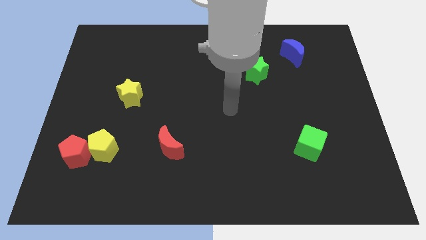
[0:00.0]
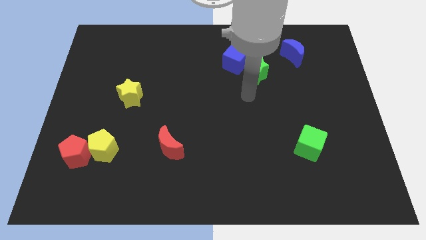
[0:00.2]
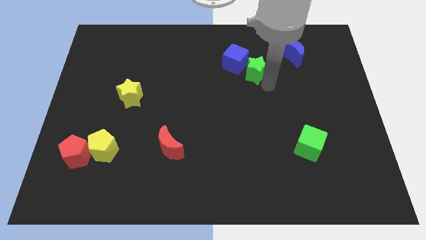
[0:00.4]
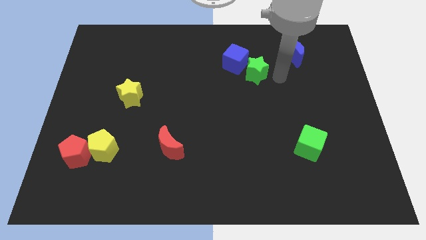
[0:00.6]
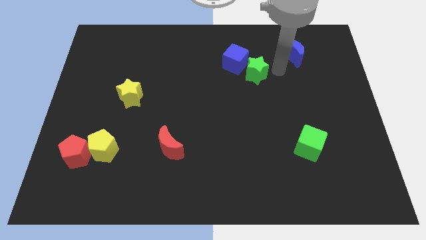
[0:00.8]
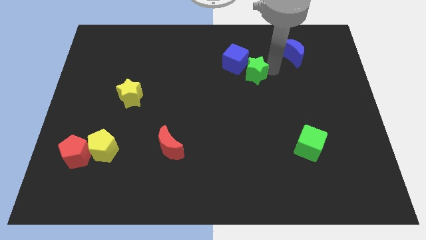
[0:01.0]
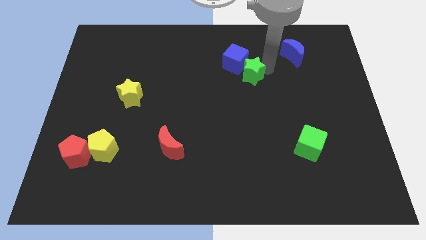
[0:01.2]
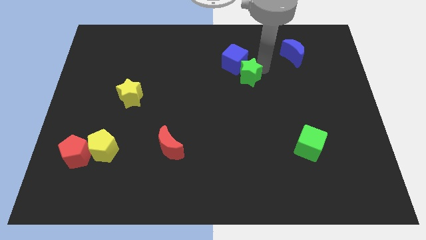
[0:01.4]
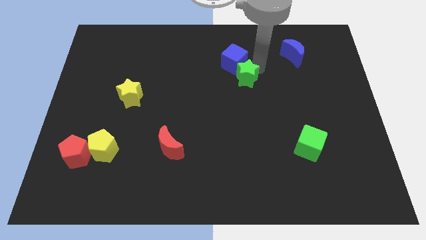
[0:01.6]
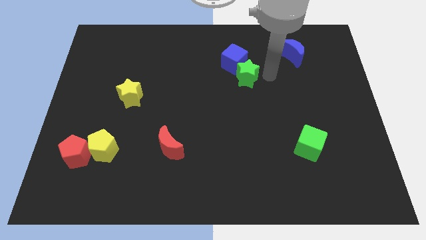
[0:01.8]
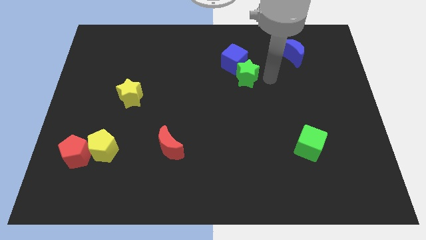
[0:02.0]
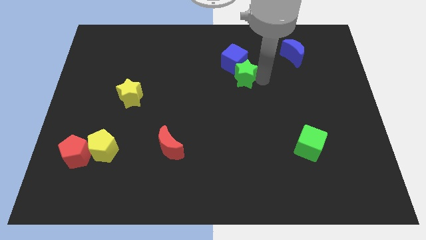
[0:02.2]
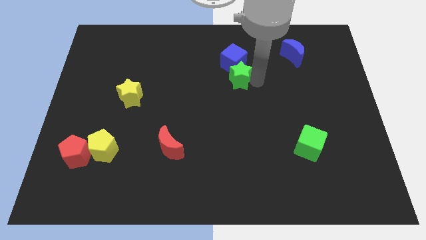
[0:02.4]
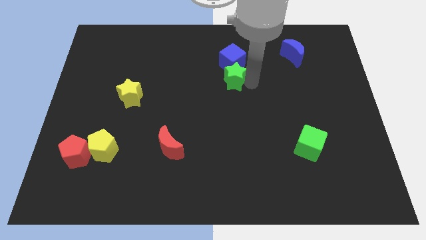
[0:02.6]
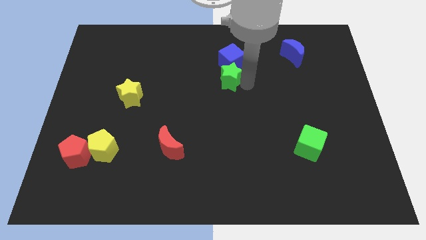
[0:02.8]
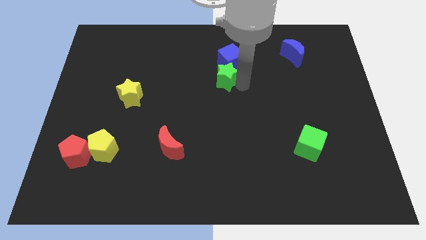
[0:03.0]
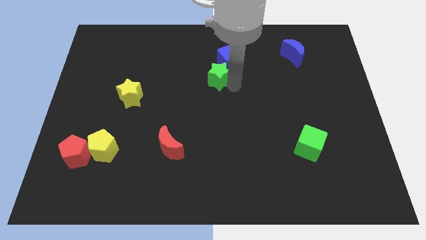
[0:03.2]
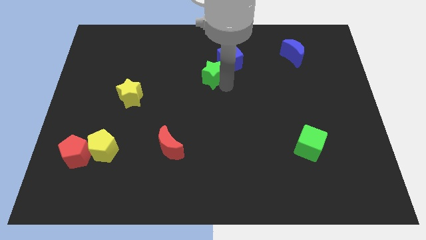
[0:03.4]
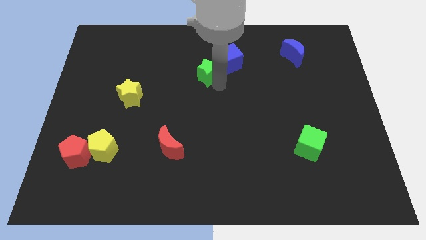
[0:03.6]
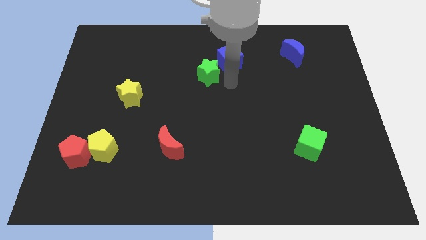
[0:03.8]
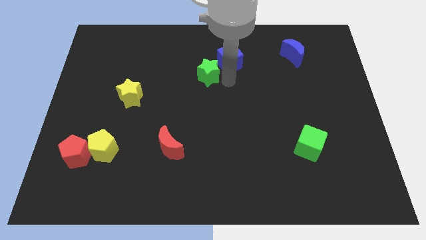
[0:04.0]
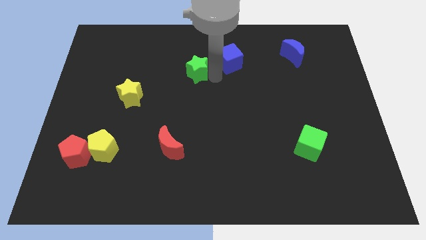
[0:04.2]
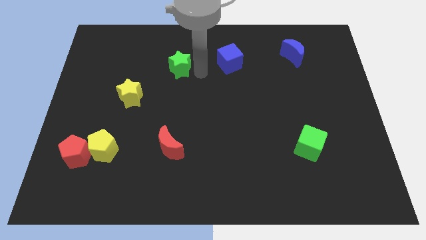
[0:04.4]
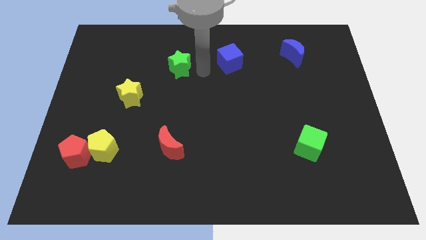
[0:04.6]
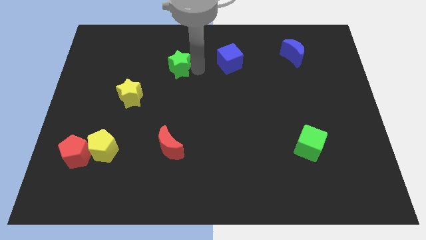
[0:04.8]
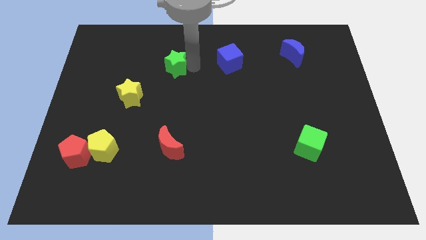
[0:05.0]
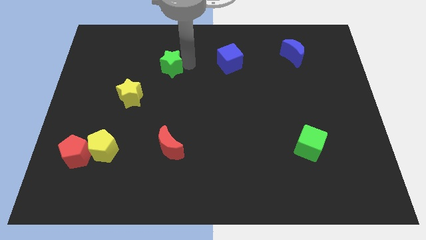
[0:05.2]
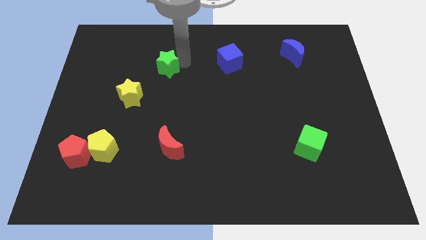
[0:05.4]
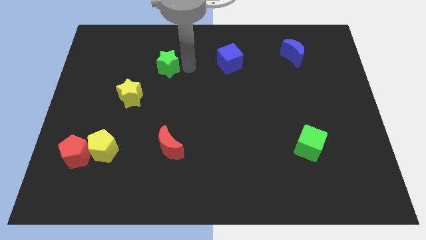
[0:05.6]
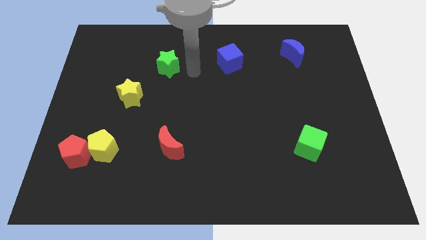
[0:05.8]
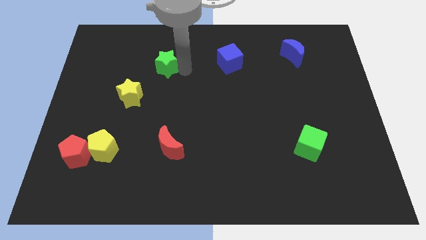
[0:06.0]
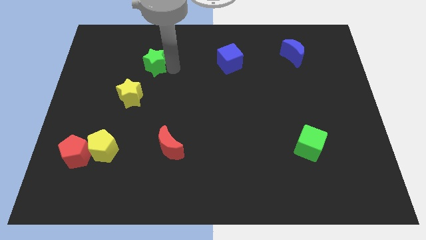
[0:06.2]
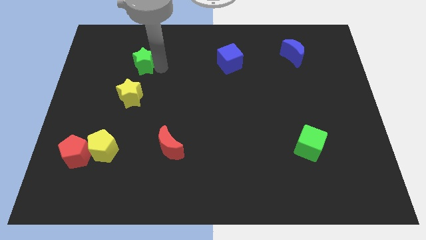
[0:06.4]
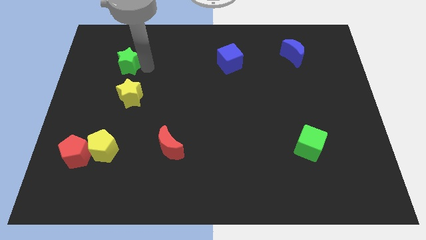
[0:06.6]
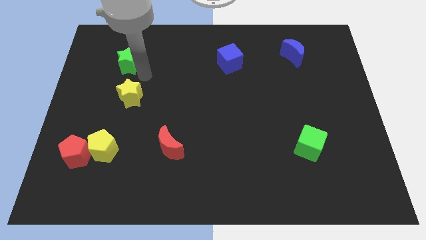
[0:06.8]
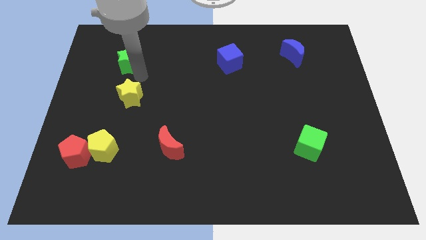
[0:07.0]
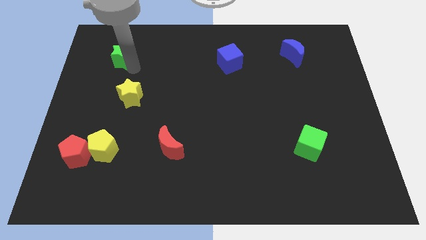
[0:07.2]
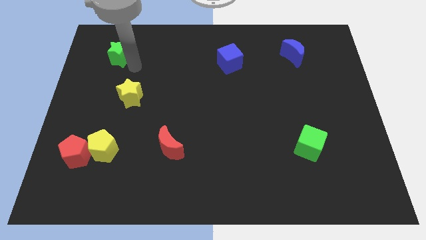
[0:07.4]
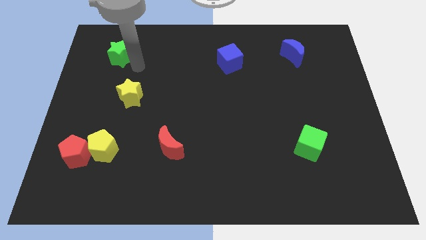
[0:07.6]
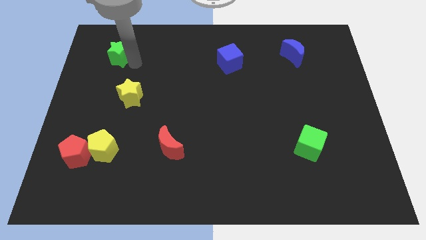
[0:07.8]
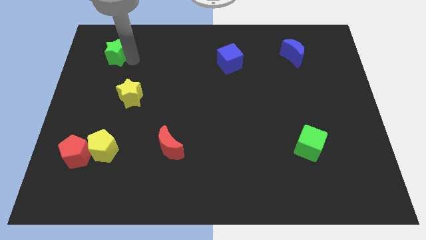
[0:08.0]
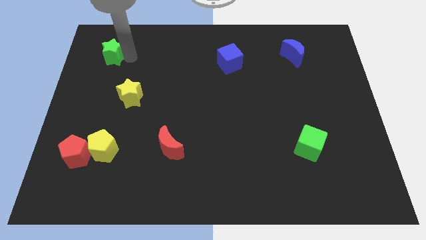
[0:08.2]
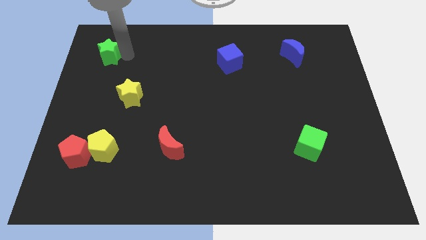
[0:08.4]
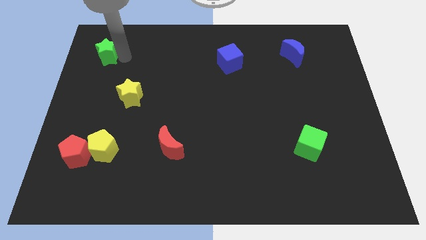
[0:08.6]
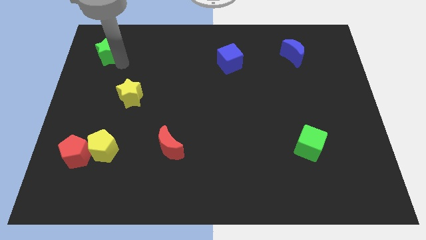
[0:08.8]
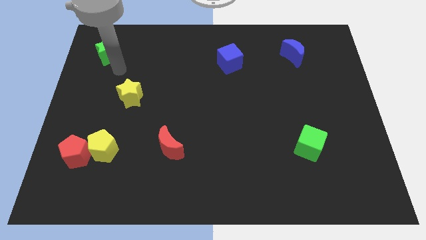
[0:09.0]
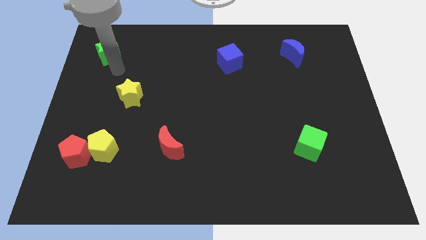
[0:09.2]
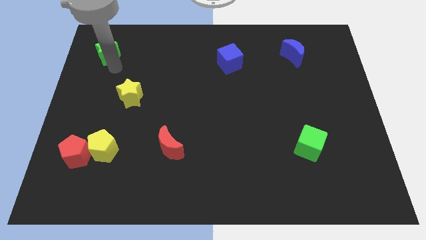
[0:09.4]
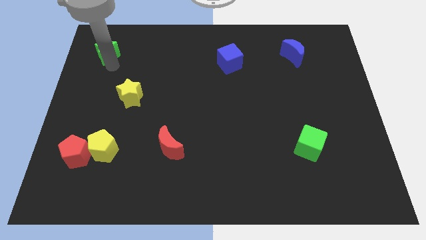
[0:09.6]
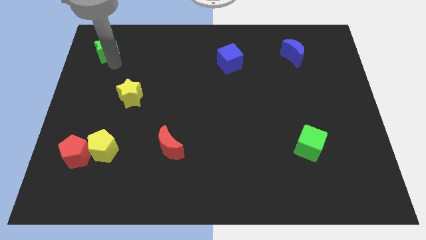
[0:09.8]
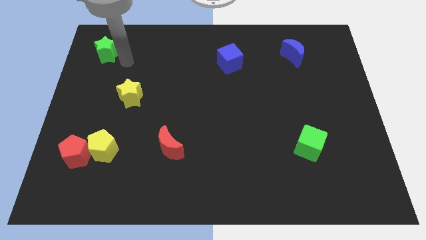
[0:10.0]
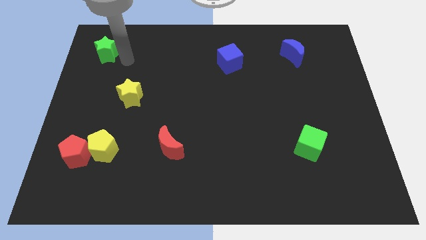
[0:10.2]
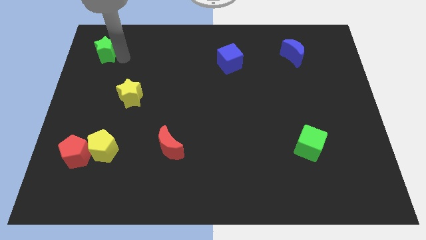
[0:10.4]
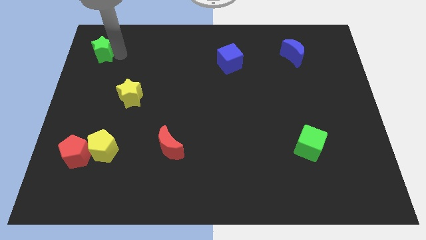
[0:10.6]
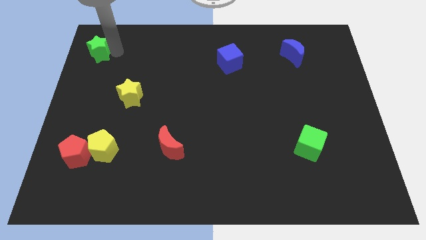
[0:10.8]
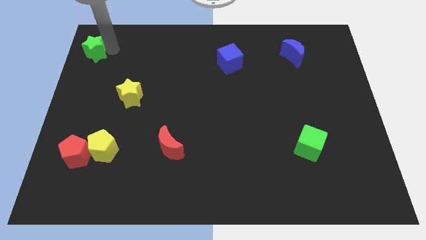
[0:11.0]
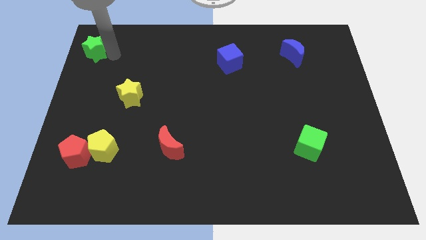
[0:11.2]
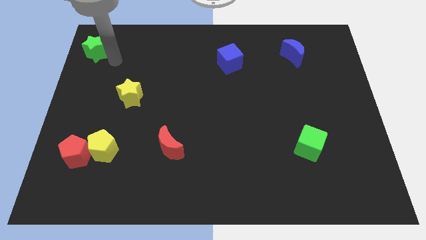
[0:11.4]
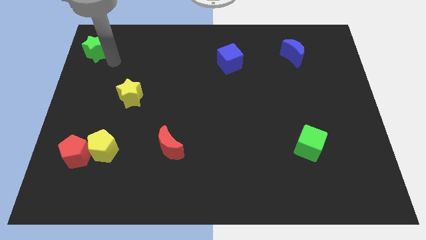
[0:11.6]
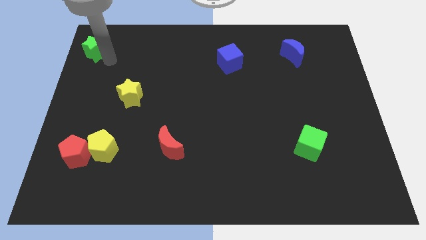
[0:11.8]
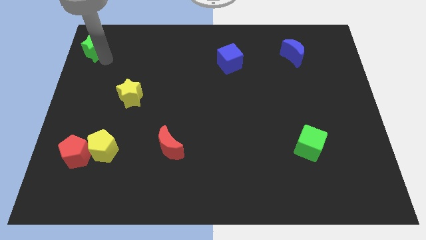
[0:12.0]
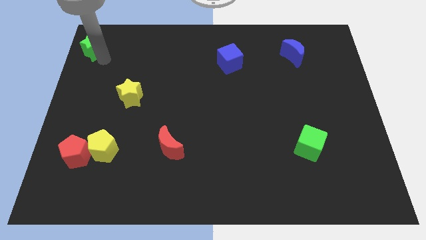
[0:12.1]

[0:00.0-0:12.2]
put the green star to the top left
